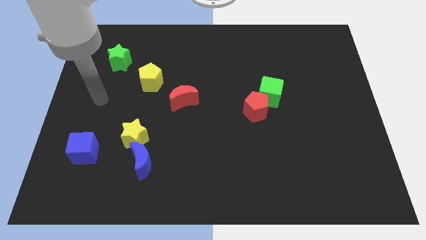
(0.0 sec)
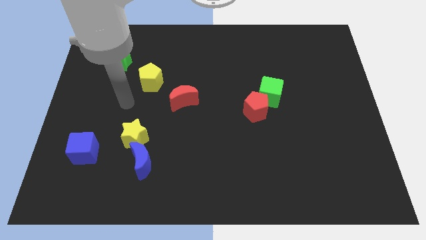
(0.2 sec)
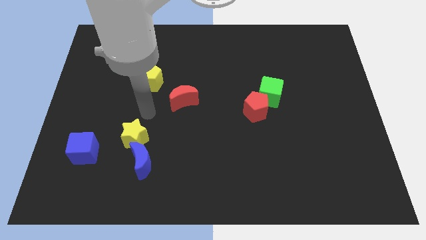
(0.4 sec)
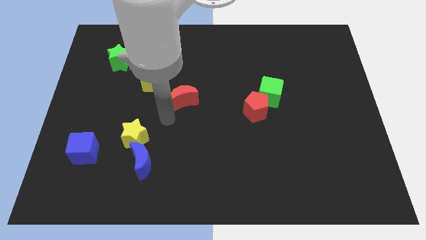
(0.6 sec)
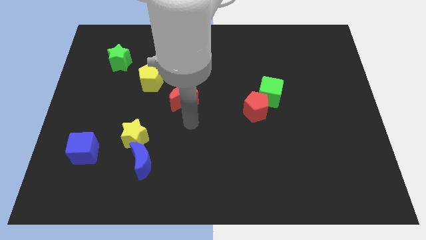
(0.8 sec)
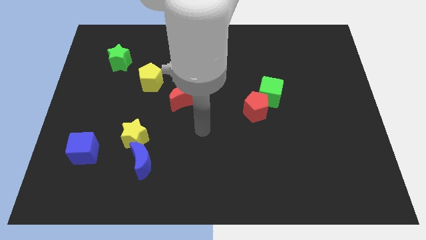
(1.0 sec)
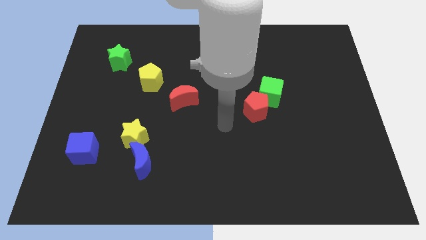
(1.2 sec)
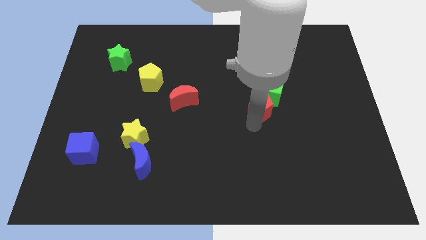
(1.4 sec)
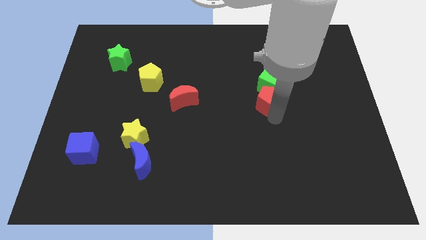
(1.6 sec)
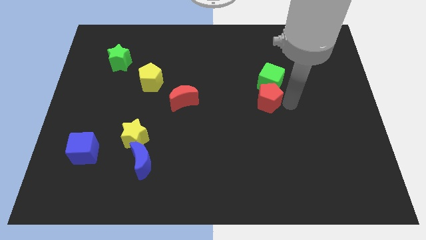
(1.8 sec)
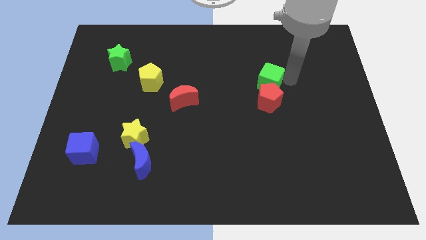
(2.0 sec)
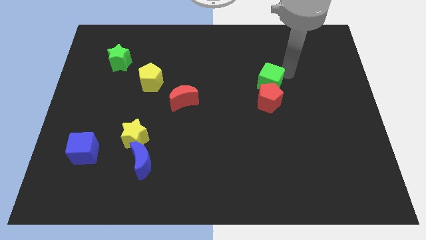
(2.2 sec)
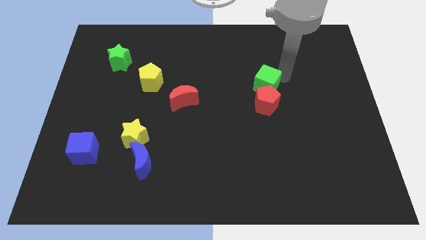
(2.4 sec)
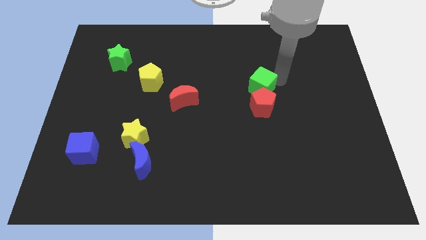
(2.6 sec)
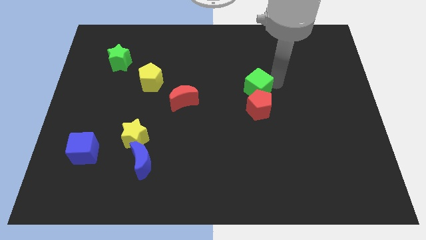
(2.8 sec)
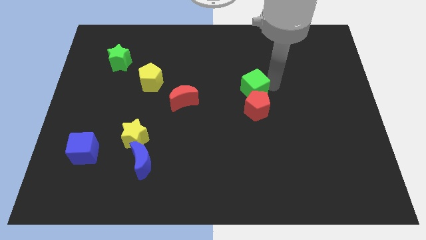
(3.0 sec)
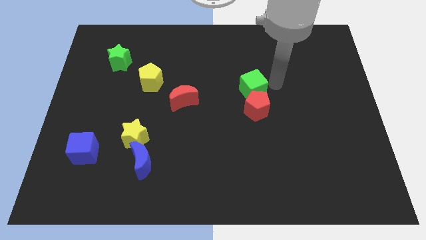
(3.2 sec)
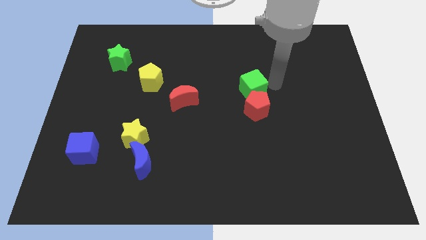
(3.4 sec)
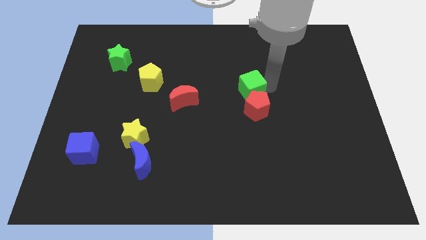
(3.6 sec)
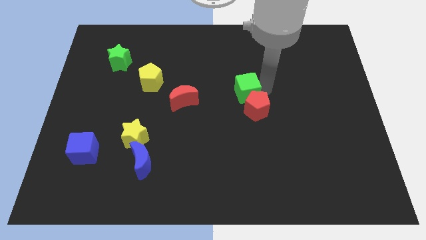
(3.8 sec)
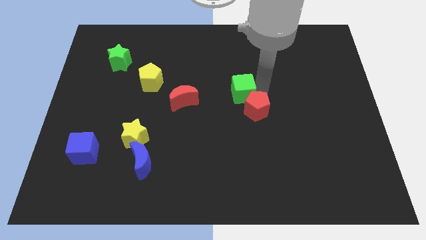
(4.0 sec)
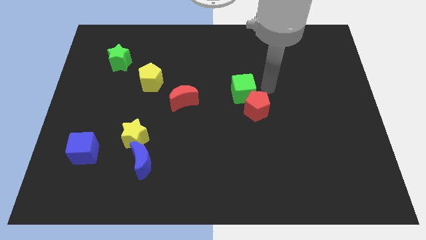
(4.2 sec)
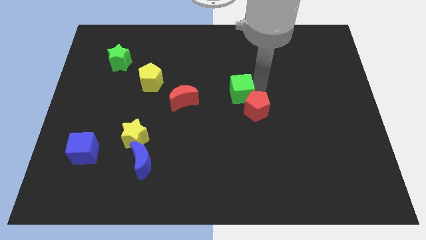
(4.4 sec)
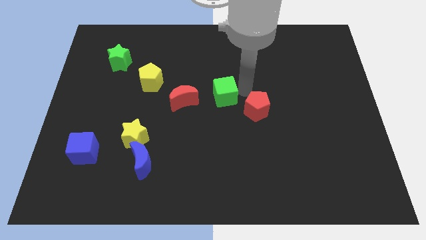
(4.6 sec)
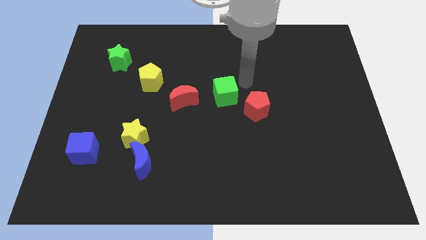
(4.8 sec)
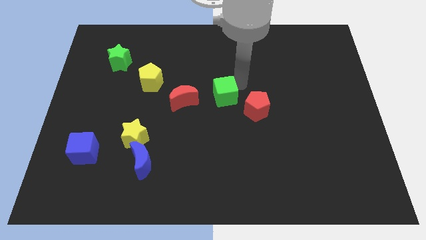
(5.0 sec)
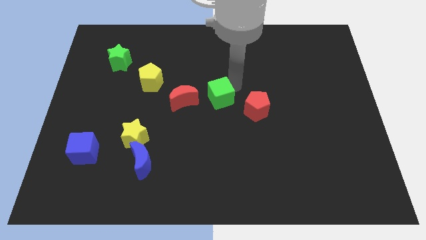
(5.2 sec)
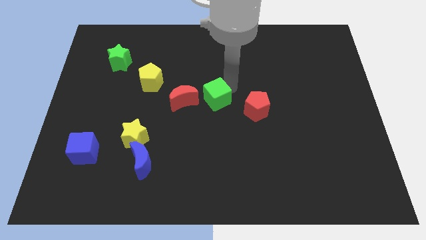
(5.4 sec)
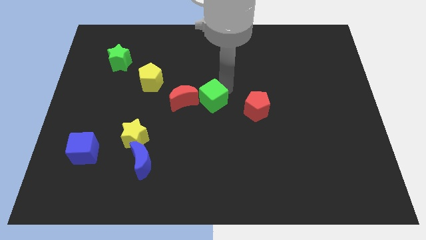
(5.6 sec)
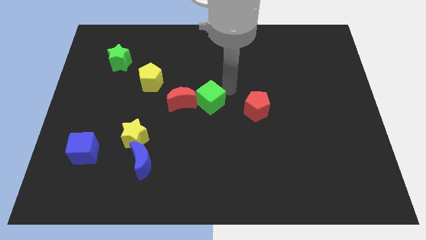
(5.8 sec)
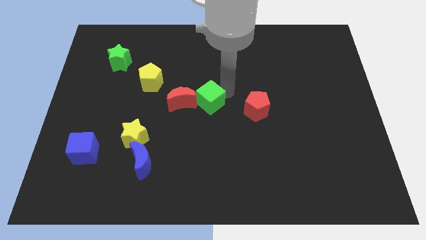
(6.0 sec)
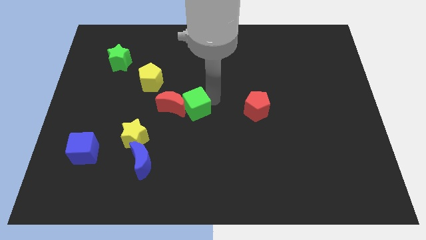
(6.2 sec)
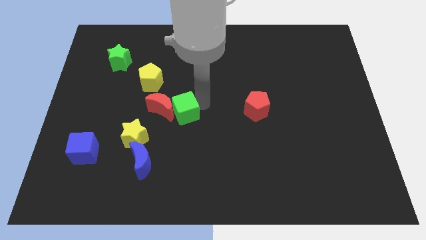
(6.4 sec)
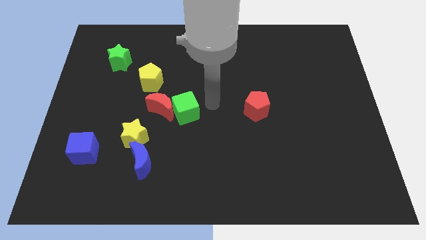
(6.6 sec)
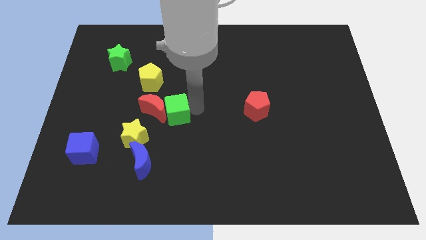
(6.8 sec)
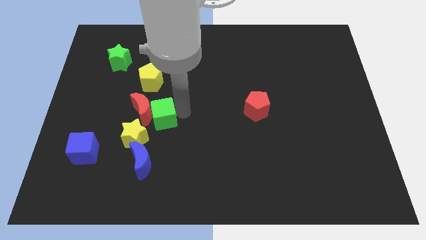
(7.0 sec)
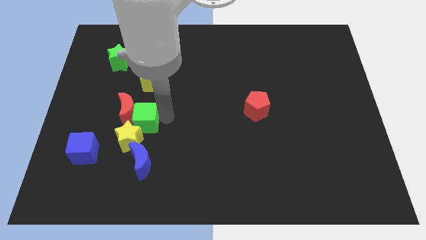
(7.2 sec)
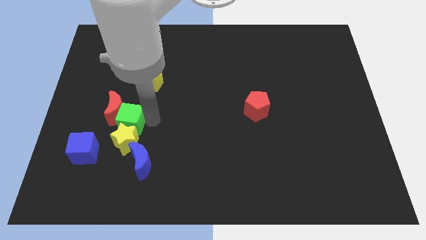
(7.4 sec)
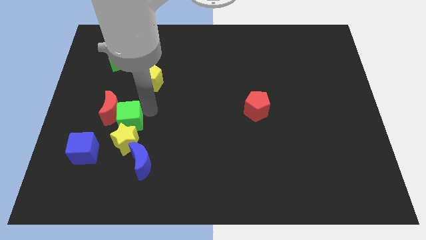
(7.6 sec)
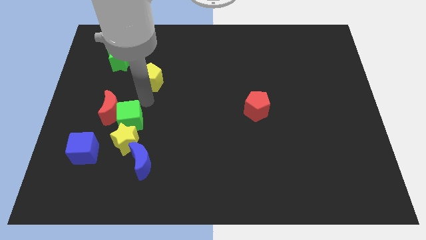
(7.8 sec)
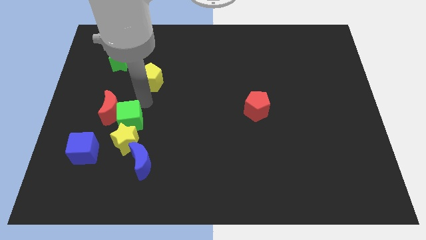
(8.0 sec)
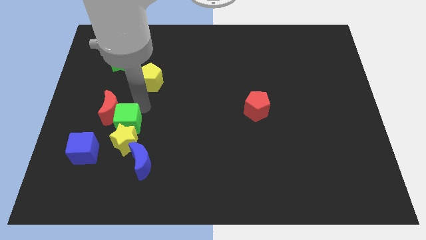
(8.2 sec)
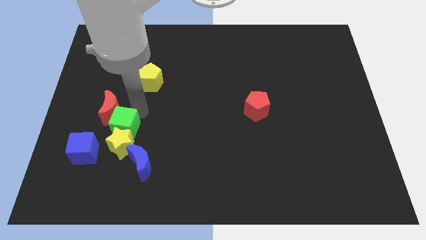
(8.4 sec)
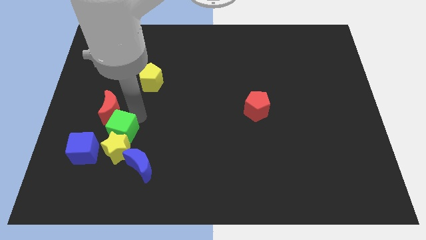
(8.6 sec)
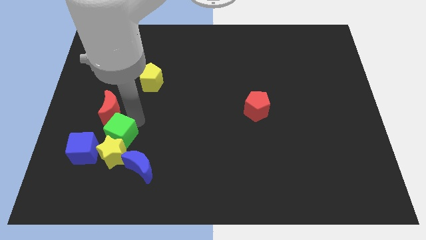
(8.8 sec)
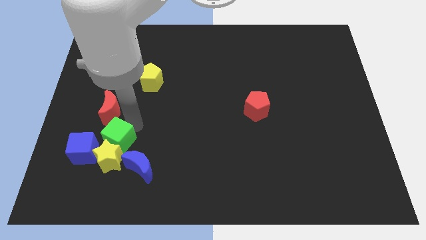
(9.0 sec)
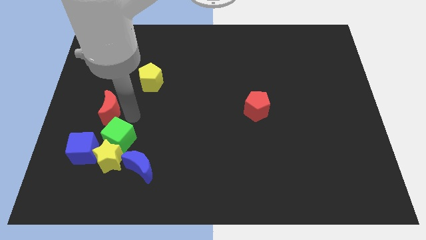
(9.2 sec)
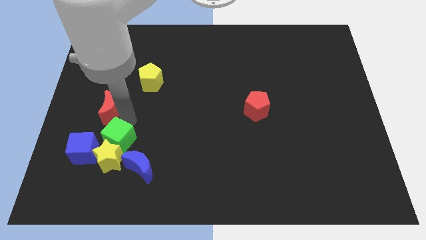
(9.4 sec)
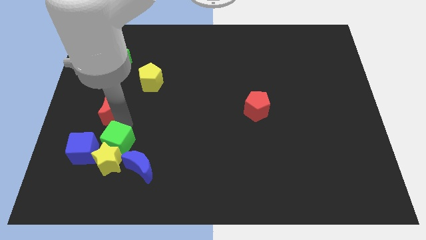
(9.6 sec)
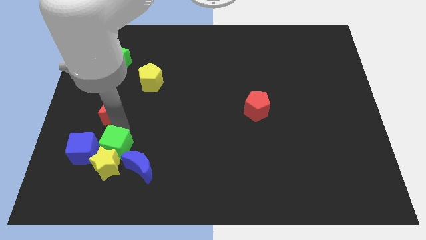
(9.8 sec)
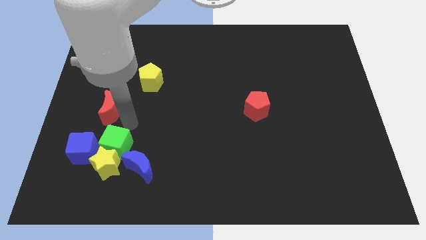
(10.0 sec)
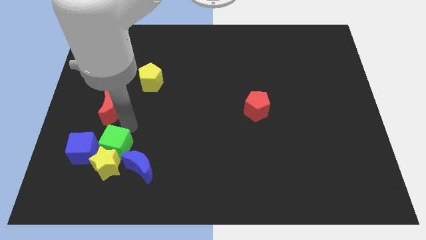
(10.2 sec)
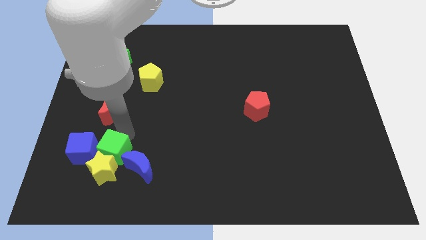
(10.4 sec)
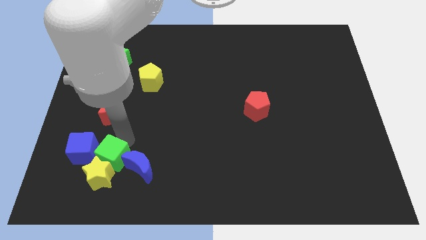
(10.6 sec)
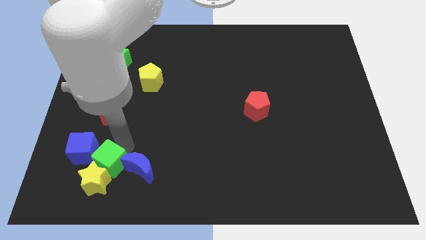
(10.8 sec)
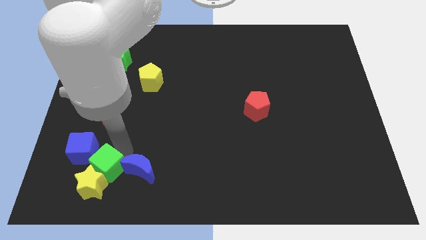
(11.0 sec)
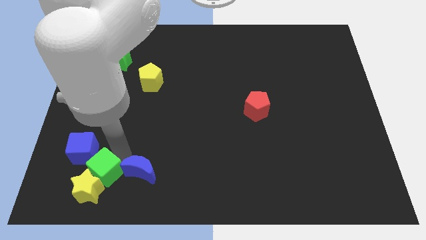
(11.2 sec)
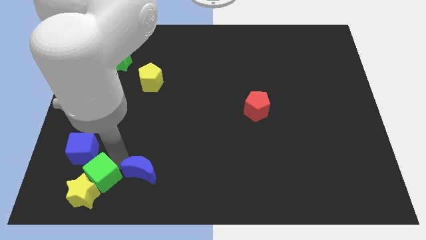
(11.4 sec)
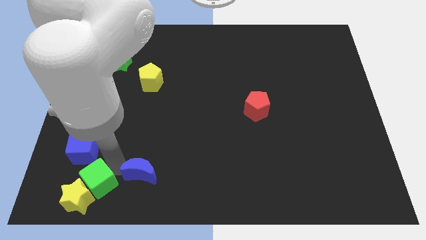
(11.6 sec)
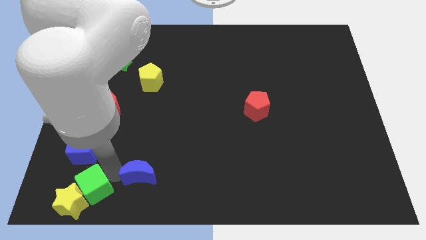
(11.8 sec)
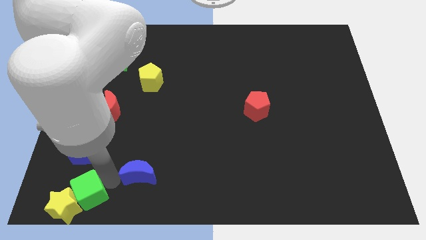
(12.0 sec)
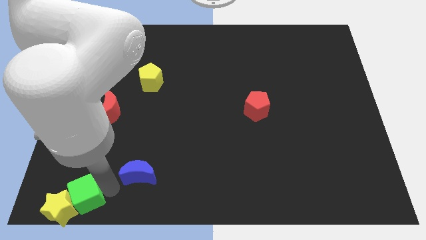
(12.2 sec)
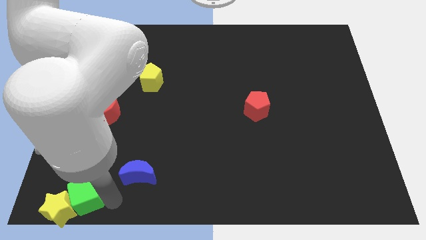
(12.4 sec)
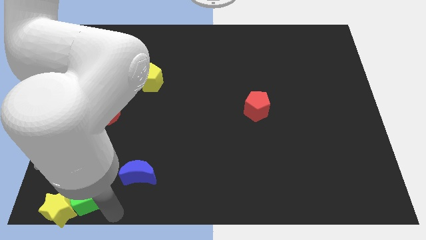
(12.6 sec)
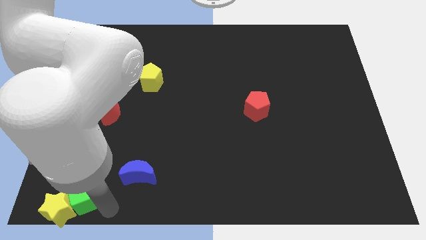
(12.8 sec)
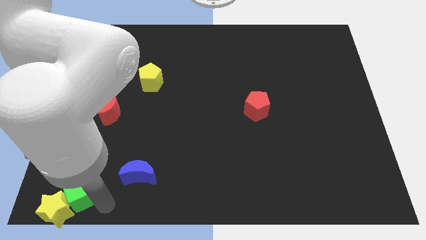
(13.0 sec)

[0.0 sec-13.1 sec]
slide the green cube to the bottom left

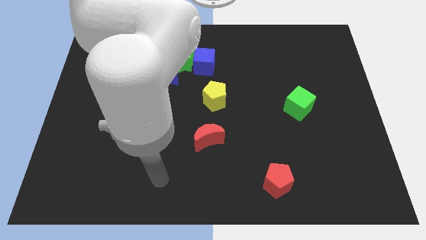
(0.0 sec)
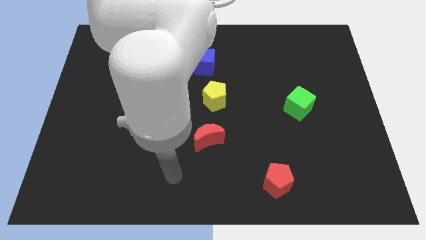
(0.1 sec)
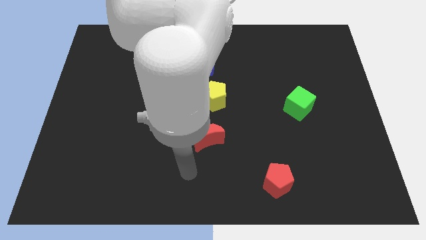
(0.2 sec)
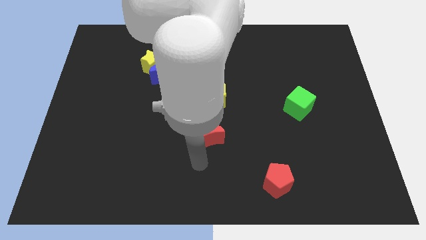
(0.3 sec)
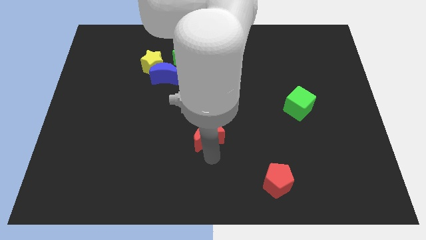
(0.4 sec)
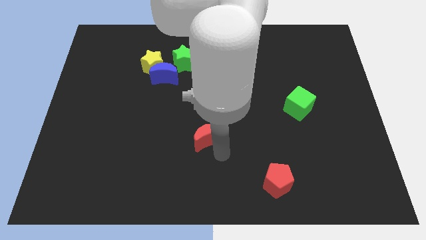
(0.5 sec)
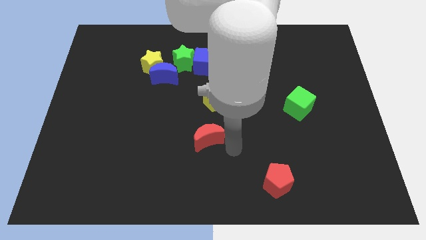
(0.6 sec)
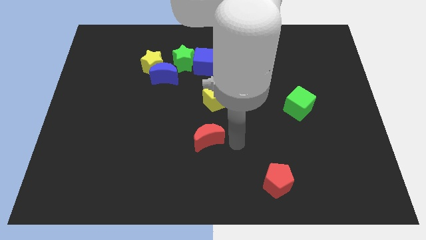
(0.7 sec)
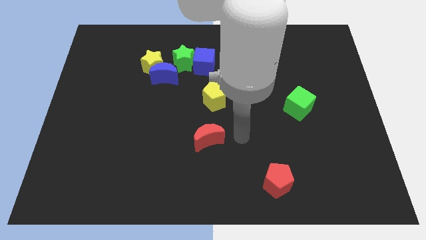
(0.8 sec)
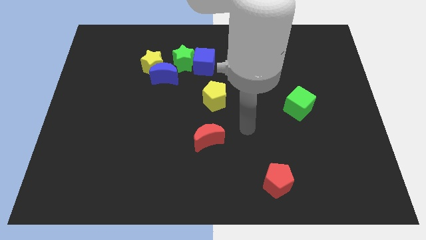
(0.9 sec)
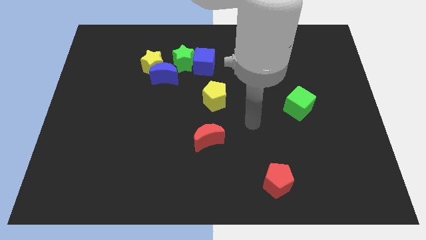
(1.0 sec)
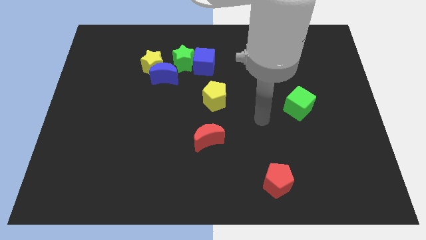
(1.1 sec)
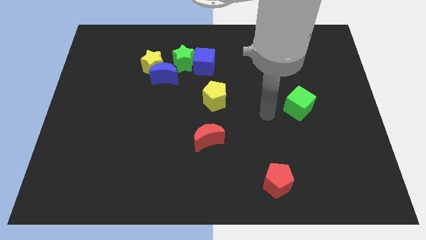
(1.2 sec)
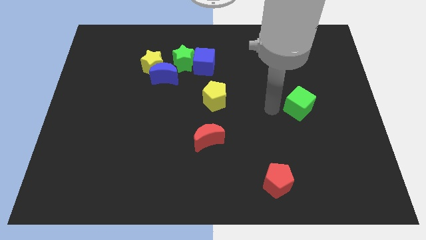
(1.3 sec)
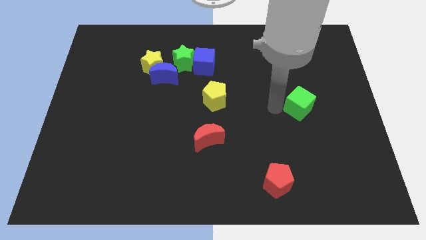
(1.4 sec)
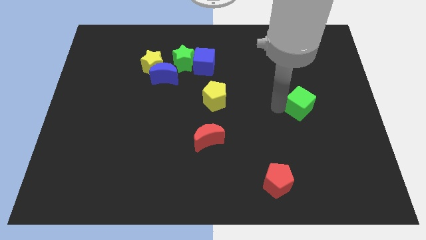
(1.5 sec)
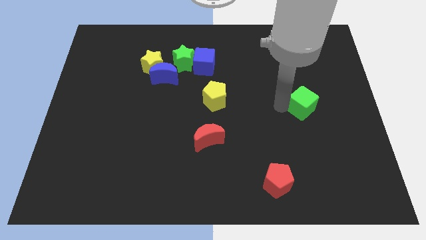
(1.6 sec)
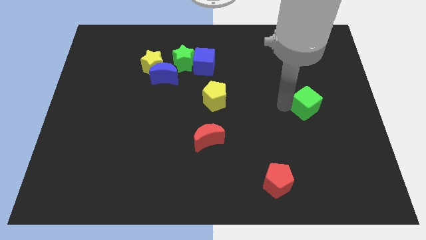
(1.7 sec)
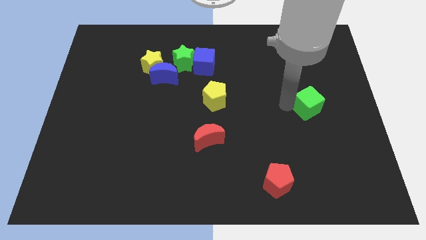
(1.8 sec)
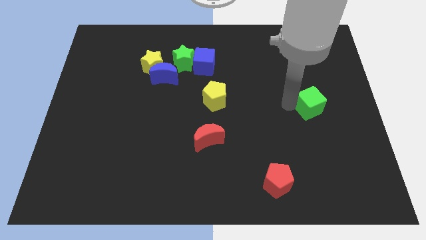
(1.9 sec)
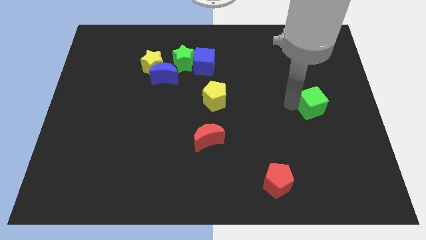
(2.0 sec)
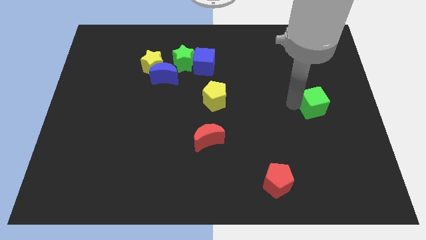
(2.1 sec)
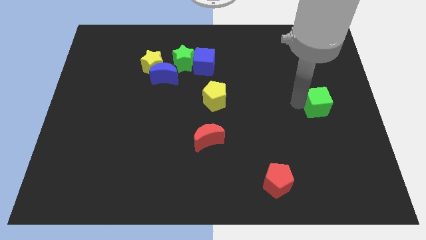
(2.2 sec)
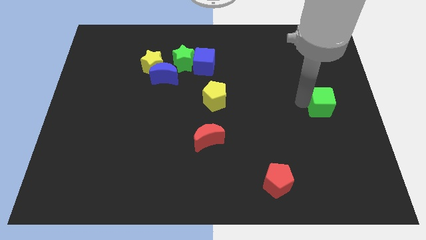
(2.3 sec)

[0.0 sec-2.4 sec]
slide the green cube to the right side
